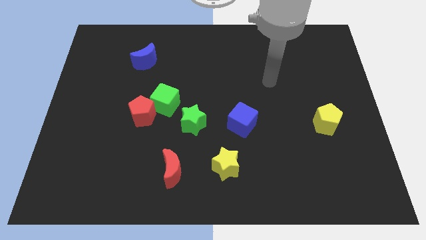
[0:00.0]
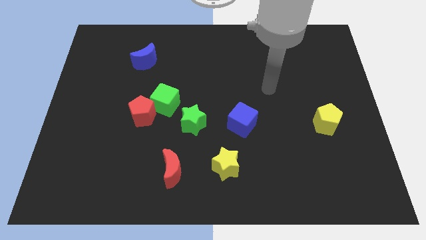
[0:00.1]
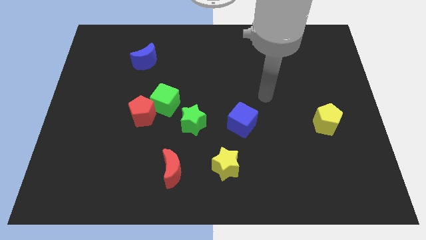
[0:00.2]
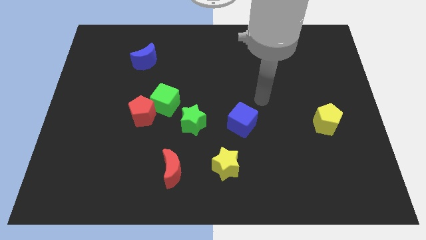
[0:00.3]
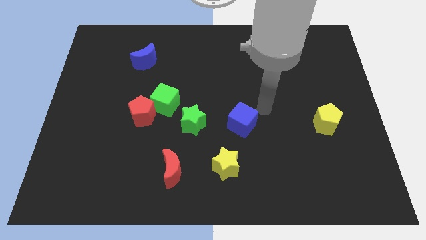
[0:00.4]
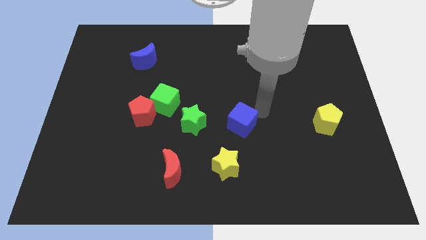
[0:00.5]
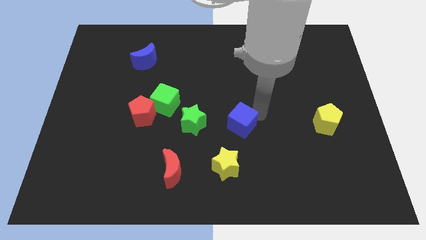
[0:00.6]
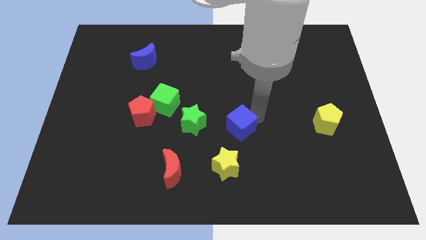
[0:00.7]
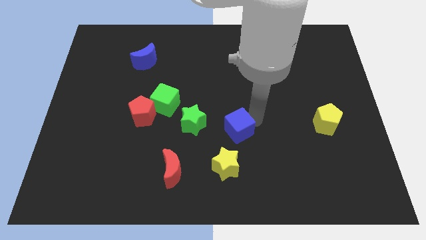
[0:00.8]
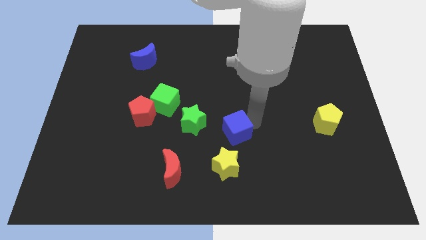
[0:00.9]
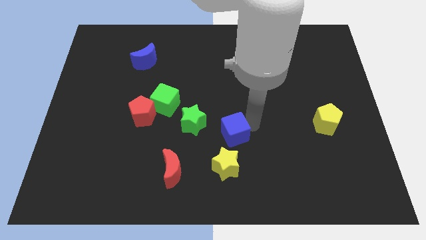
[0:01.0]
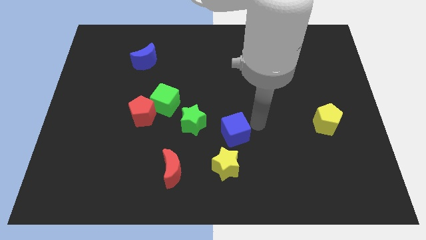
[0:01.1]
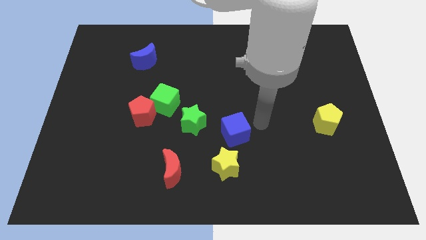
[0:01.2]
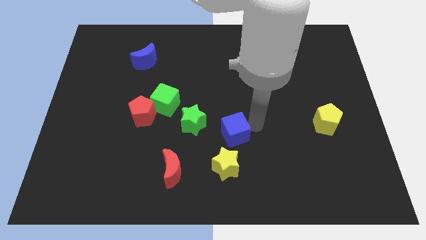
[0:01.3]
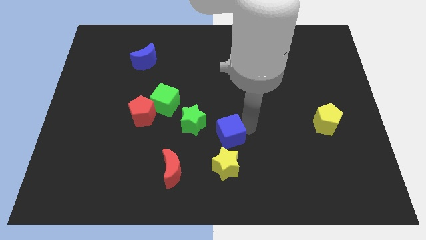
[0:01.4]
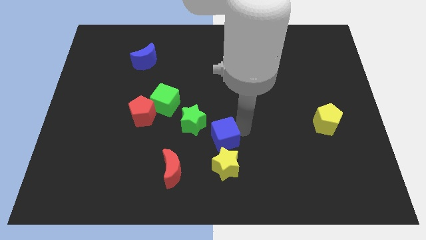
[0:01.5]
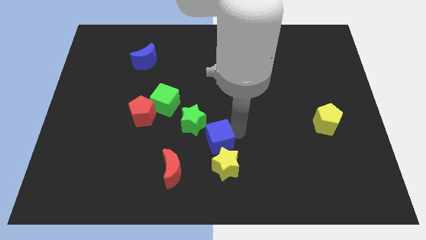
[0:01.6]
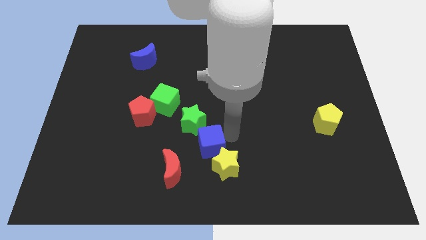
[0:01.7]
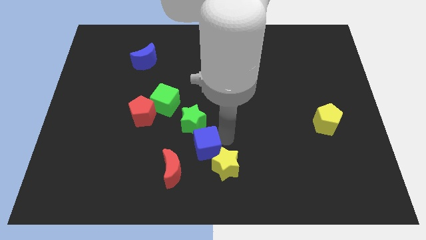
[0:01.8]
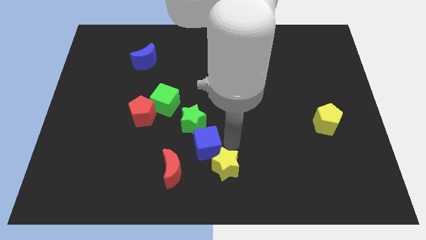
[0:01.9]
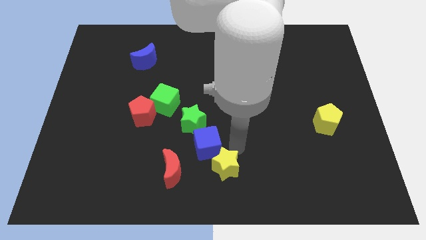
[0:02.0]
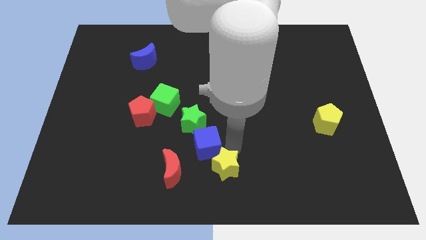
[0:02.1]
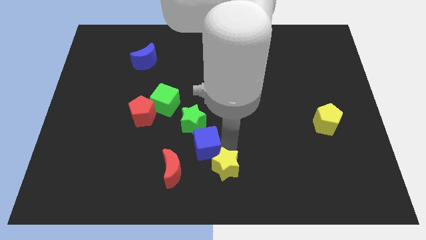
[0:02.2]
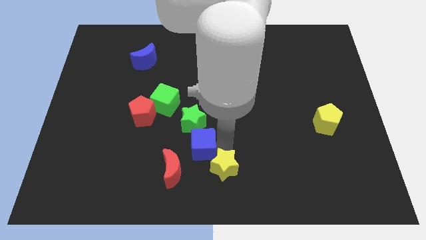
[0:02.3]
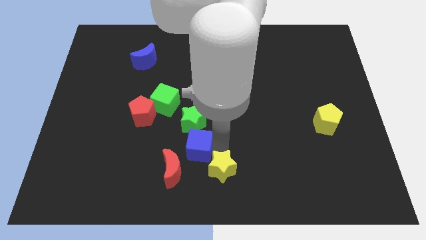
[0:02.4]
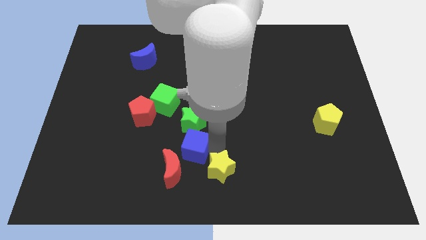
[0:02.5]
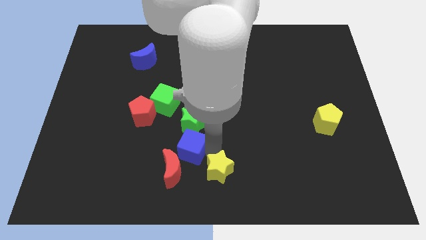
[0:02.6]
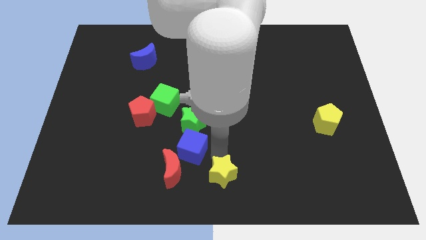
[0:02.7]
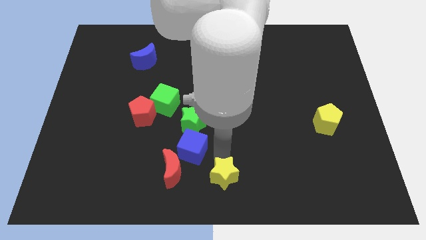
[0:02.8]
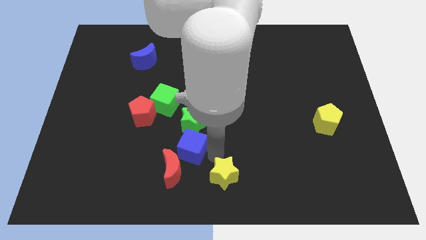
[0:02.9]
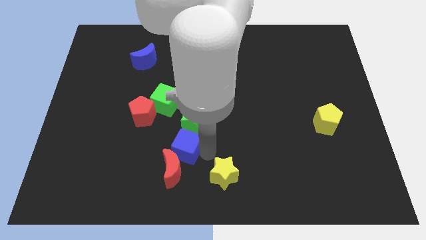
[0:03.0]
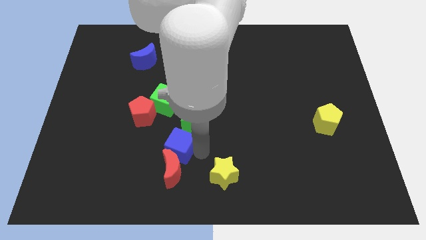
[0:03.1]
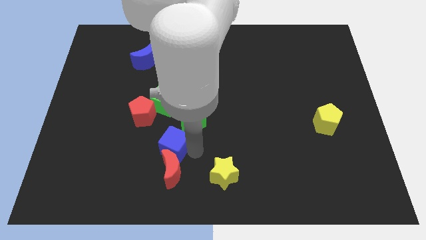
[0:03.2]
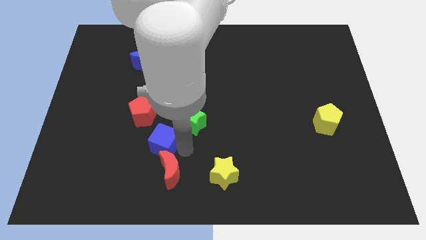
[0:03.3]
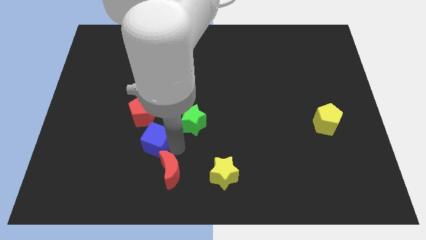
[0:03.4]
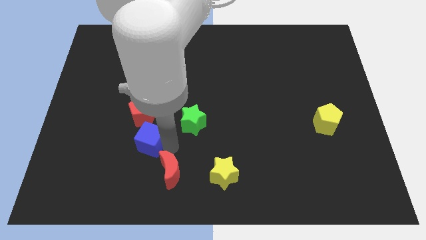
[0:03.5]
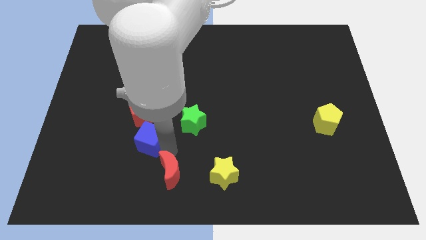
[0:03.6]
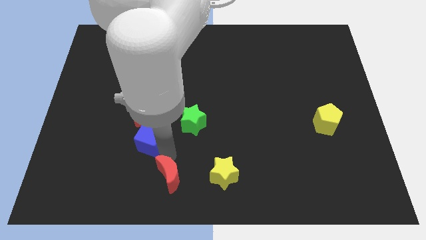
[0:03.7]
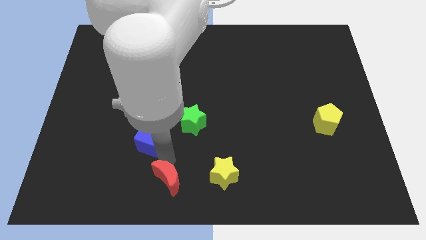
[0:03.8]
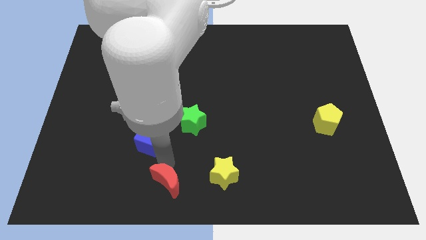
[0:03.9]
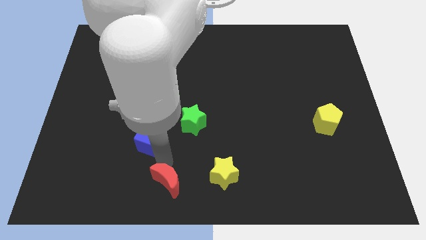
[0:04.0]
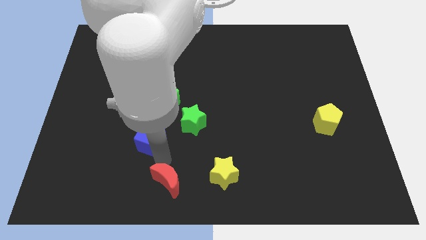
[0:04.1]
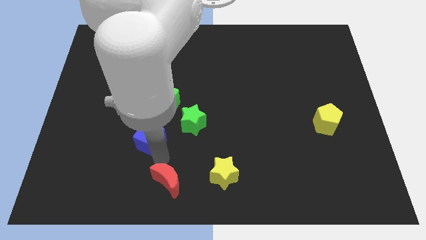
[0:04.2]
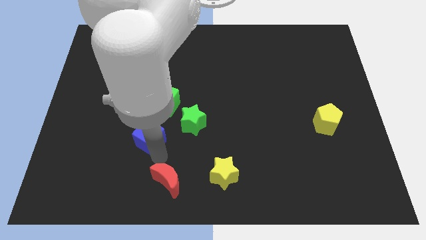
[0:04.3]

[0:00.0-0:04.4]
move the blue cube to the left

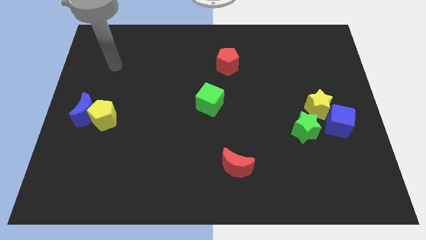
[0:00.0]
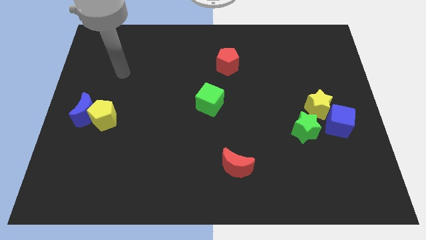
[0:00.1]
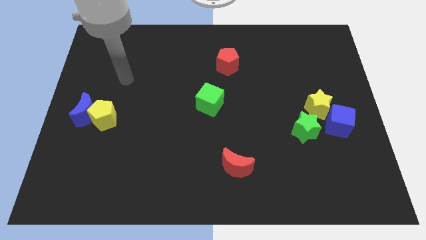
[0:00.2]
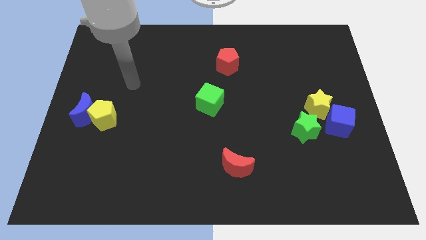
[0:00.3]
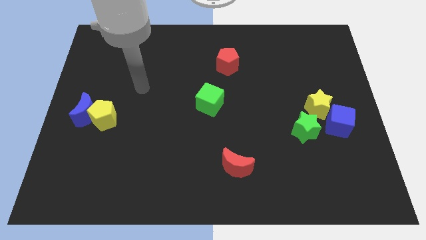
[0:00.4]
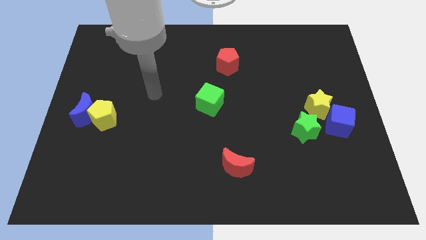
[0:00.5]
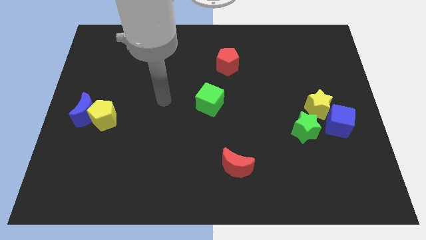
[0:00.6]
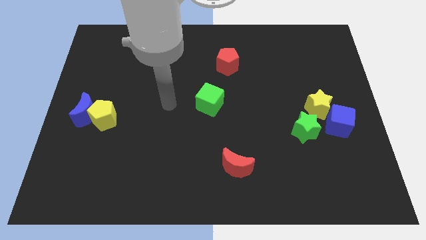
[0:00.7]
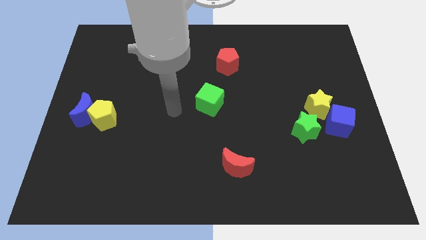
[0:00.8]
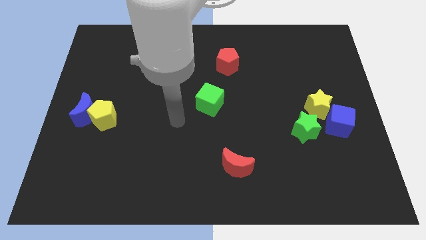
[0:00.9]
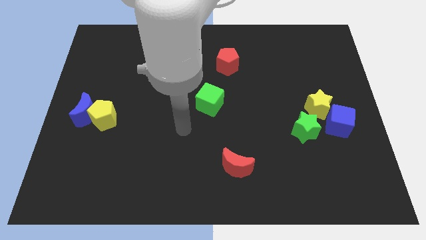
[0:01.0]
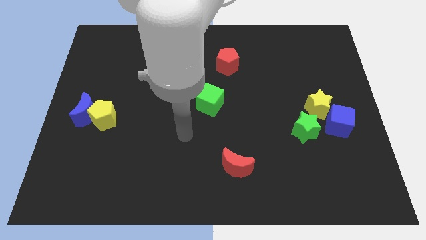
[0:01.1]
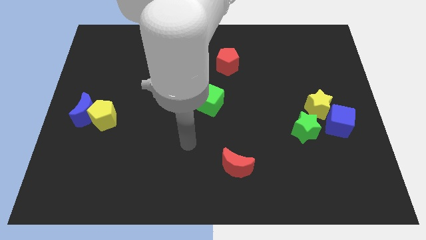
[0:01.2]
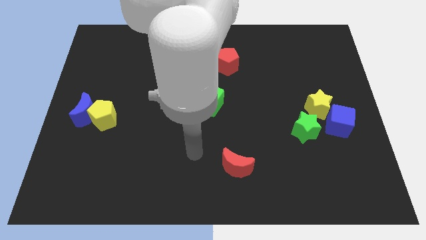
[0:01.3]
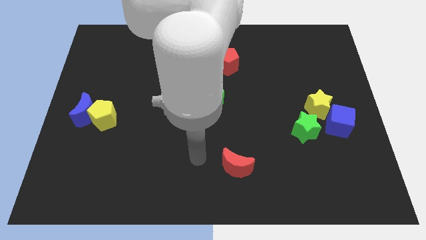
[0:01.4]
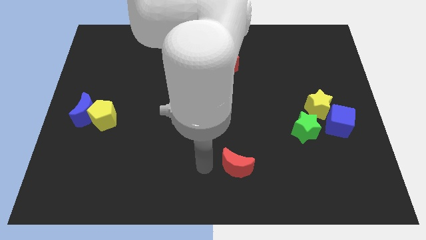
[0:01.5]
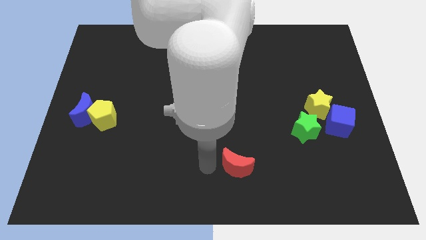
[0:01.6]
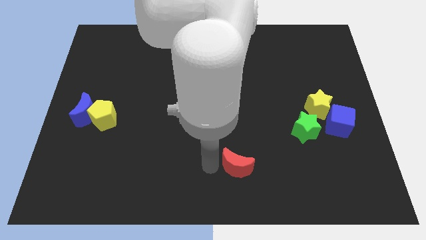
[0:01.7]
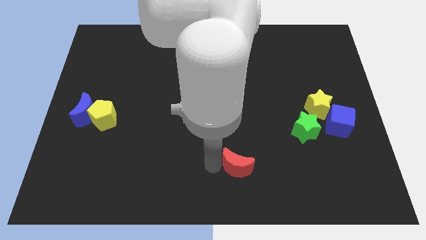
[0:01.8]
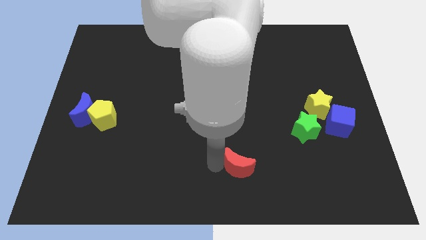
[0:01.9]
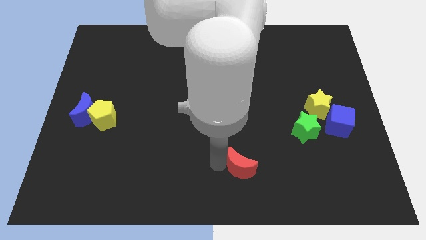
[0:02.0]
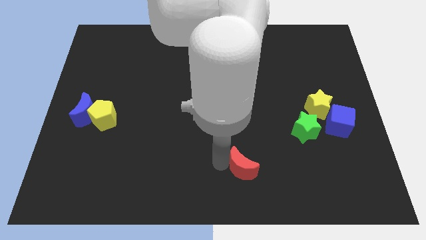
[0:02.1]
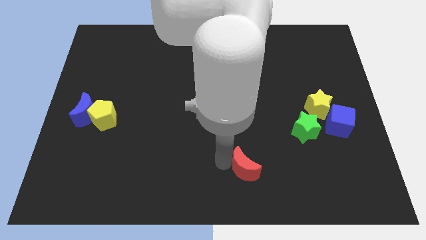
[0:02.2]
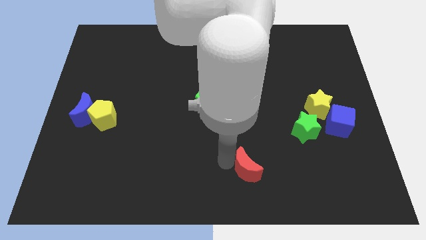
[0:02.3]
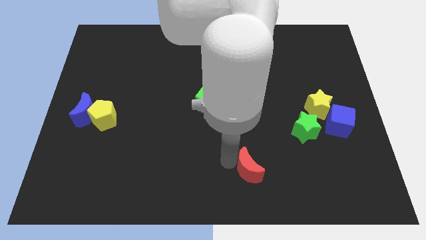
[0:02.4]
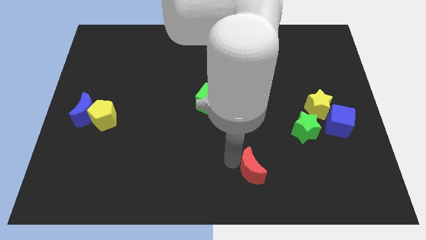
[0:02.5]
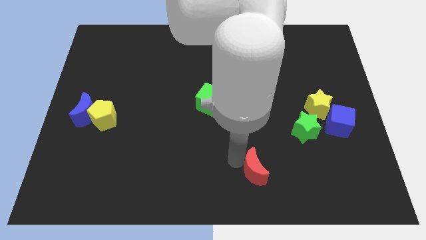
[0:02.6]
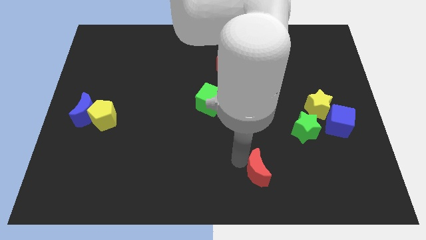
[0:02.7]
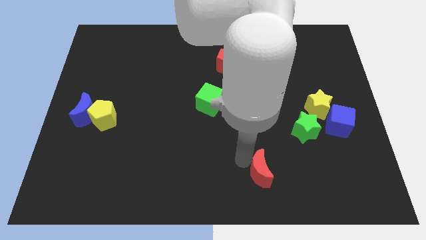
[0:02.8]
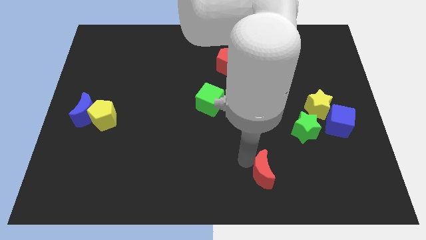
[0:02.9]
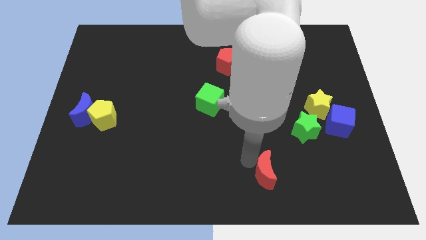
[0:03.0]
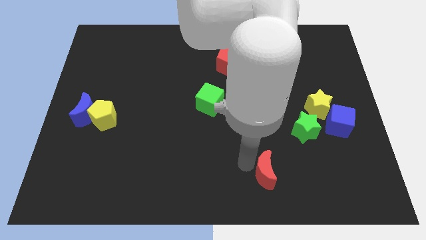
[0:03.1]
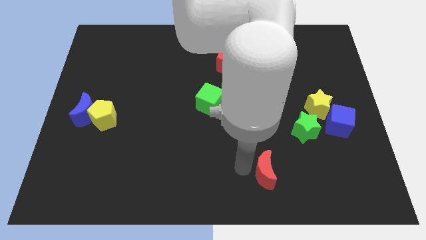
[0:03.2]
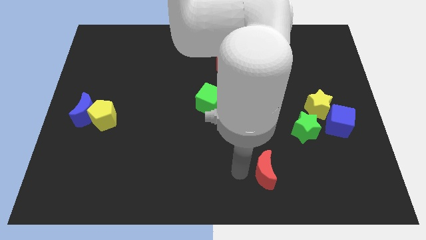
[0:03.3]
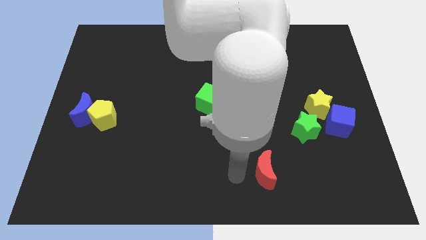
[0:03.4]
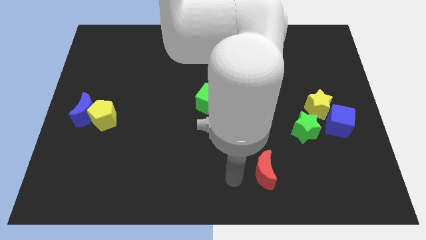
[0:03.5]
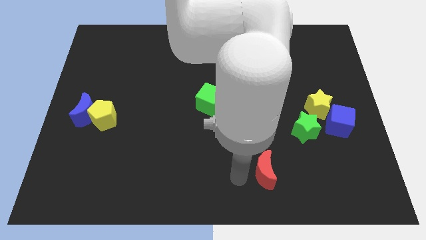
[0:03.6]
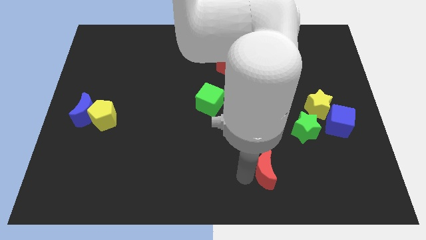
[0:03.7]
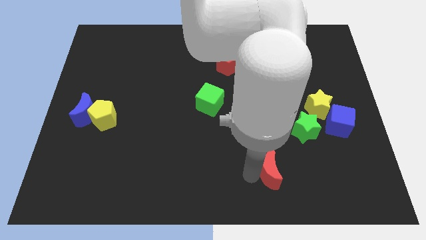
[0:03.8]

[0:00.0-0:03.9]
slightly push the red moon to the right

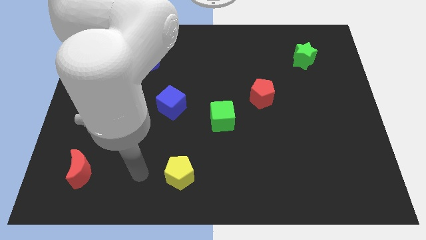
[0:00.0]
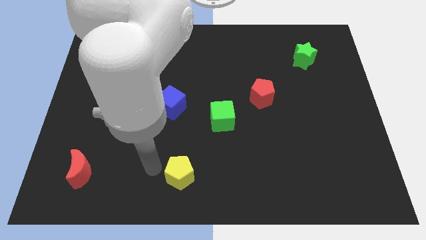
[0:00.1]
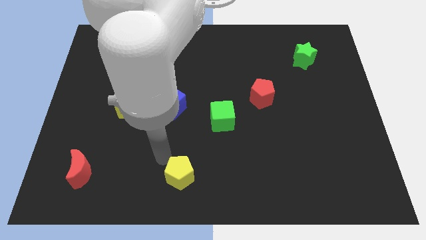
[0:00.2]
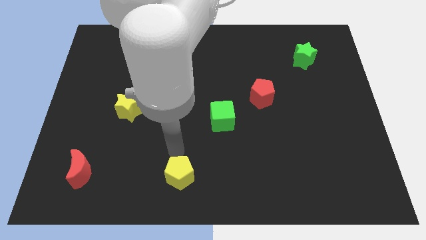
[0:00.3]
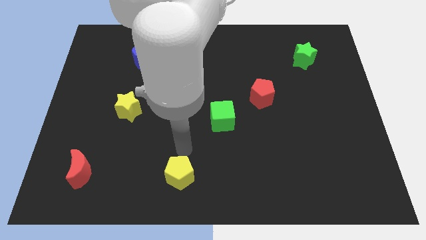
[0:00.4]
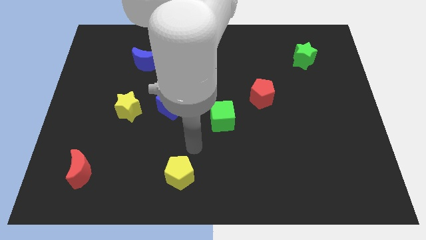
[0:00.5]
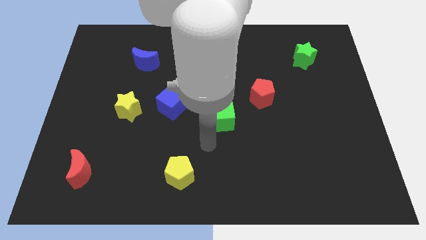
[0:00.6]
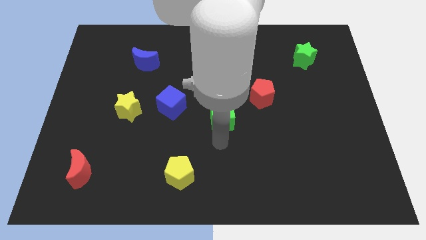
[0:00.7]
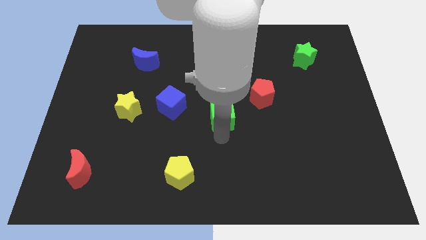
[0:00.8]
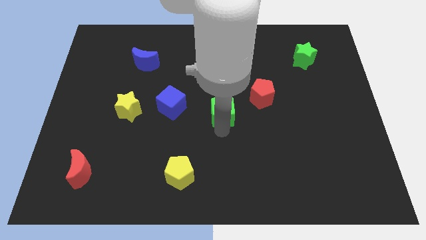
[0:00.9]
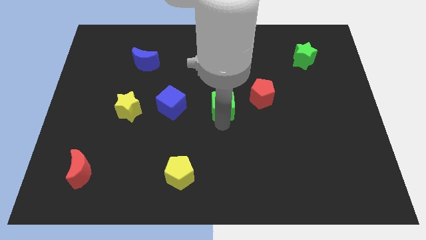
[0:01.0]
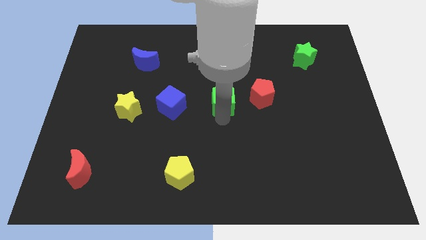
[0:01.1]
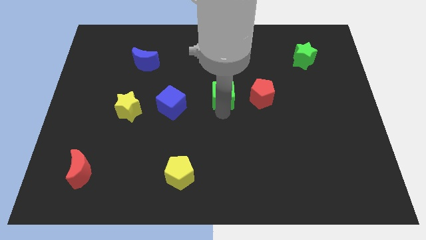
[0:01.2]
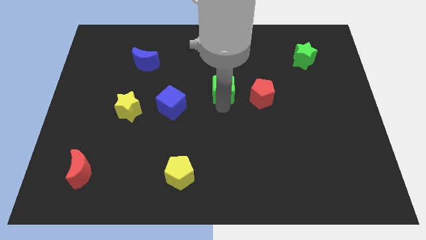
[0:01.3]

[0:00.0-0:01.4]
slide the green cube upwards somewhat
